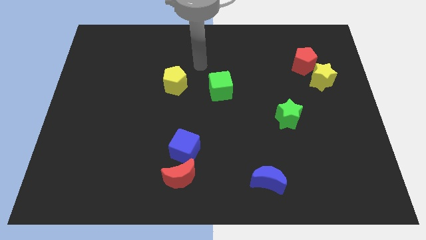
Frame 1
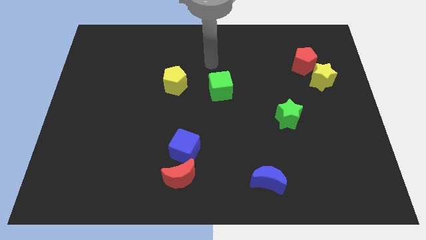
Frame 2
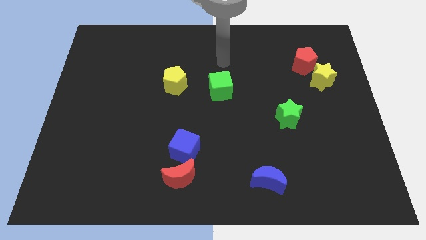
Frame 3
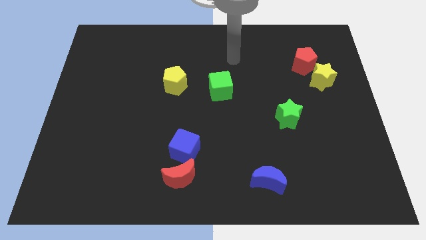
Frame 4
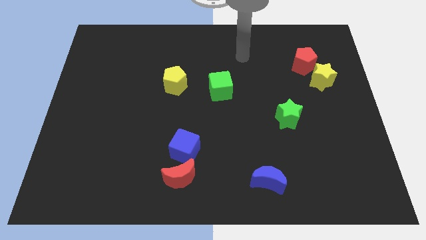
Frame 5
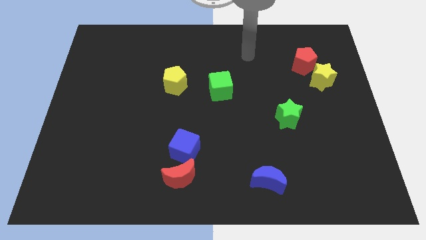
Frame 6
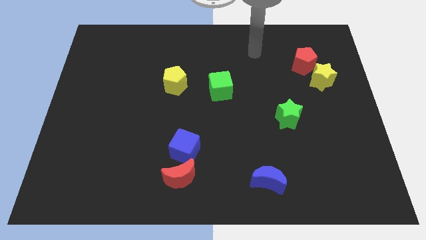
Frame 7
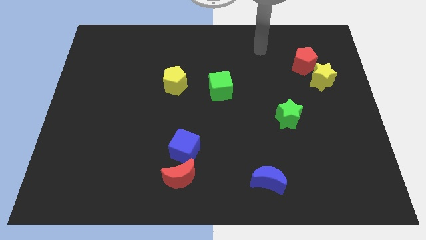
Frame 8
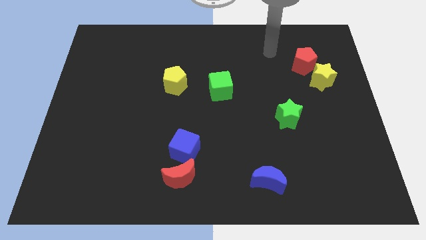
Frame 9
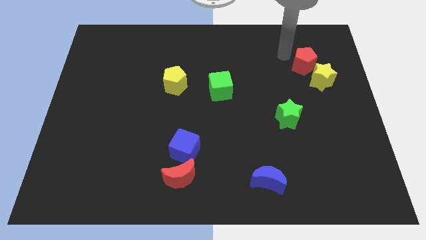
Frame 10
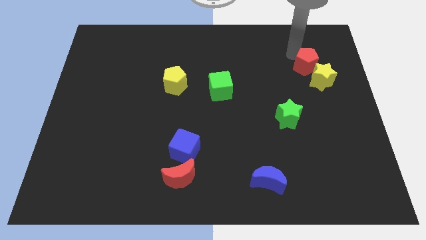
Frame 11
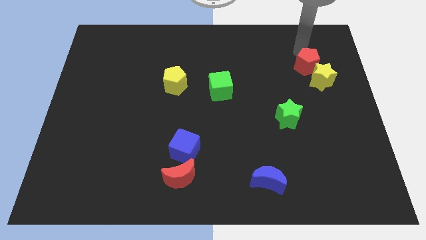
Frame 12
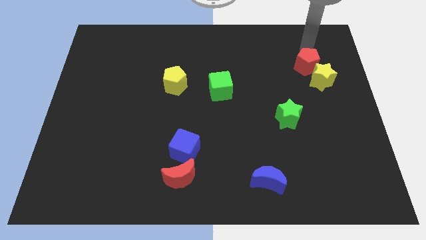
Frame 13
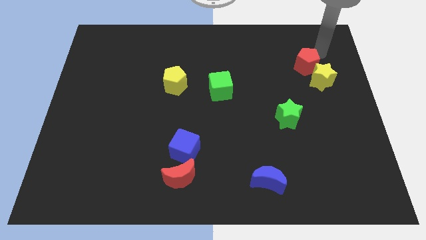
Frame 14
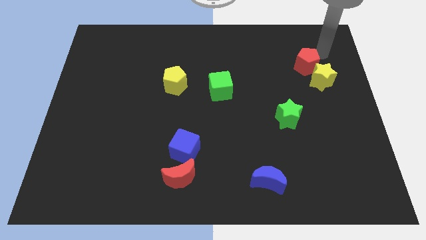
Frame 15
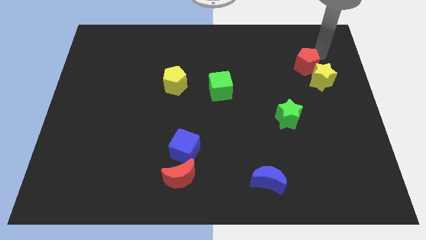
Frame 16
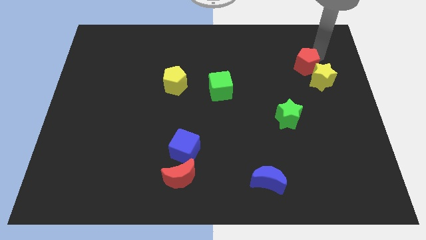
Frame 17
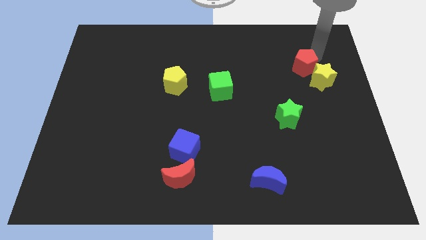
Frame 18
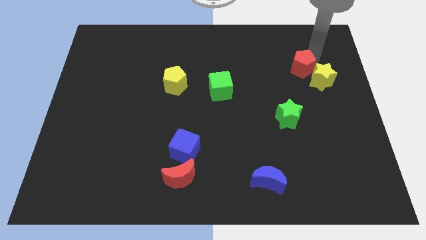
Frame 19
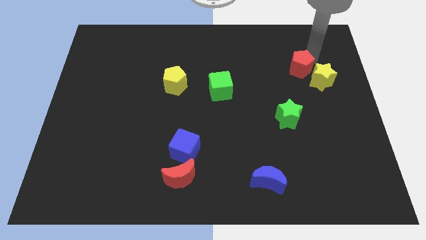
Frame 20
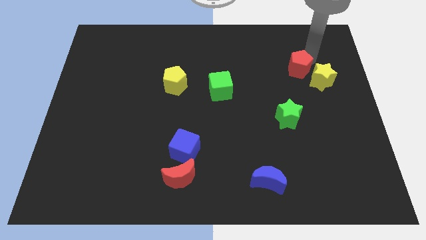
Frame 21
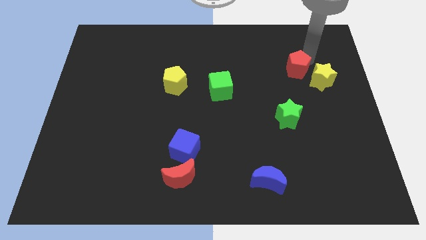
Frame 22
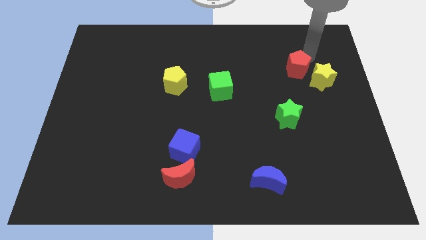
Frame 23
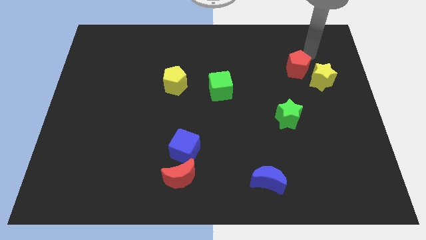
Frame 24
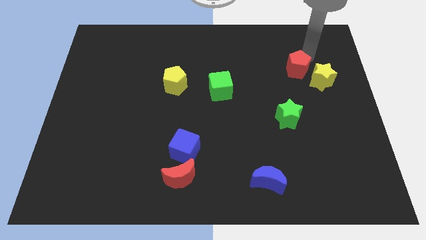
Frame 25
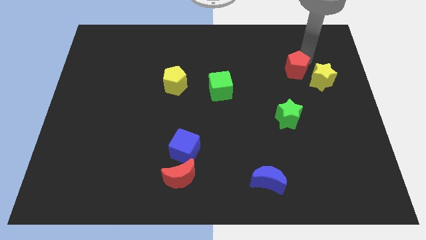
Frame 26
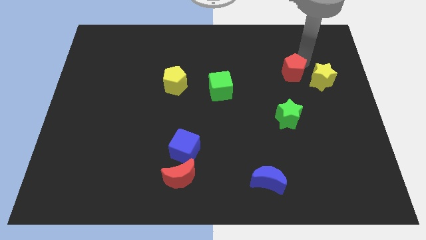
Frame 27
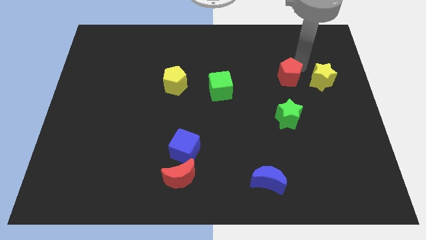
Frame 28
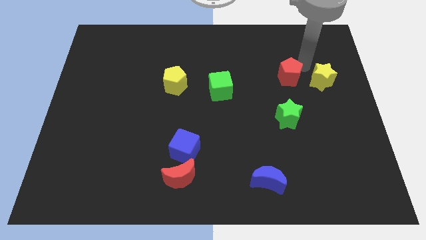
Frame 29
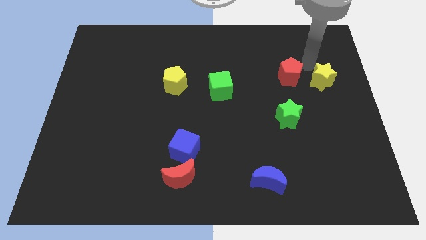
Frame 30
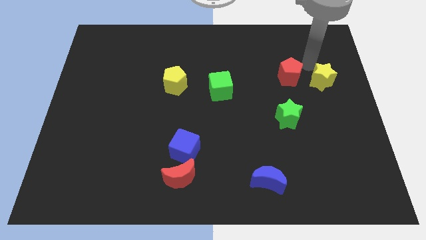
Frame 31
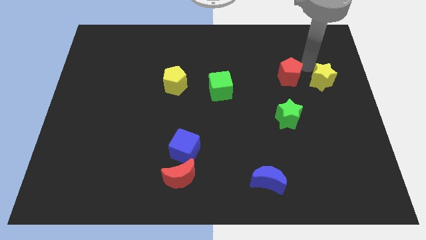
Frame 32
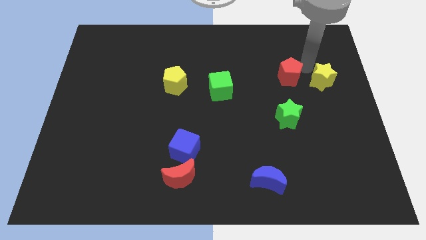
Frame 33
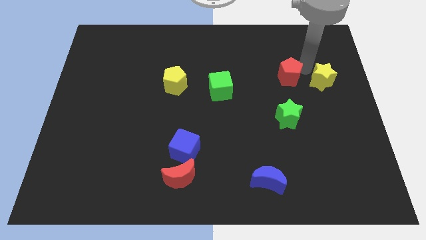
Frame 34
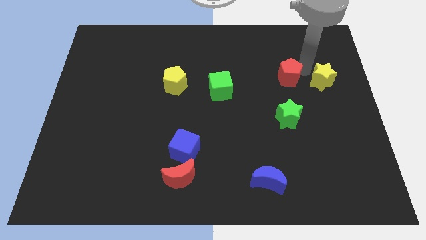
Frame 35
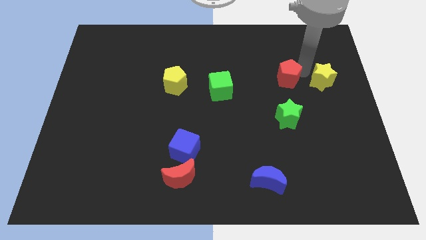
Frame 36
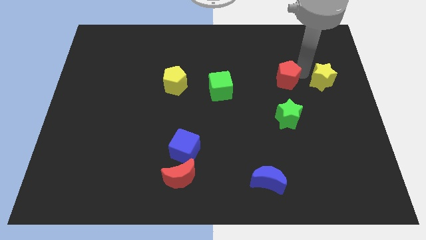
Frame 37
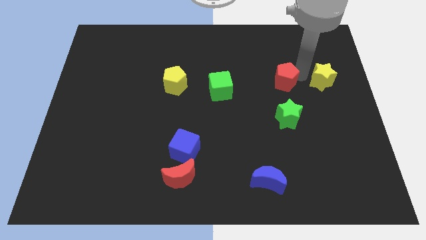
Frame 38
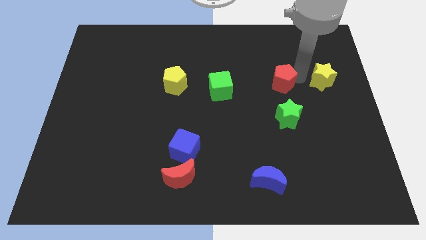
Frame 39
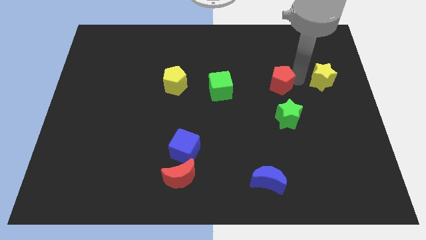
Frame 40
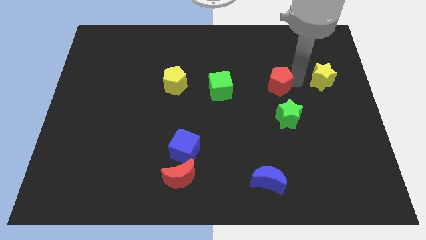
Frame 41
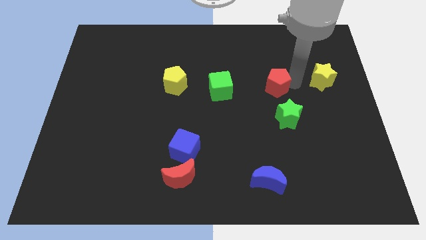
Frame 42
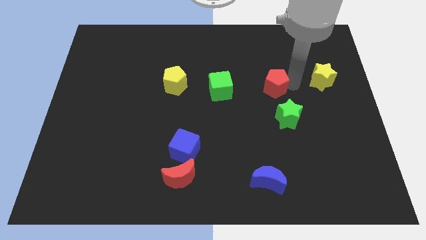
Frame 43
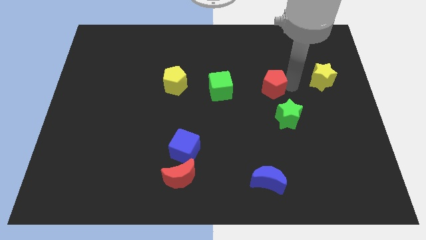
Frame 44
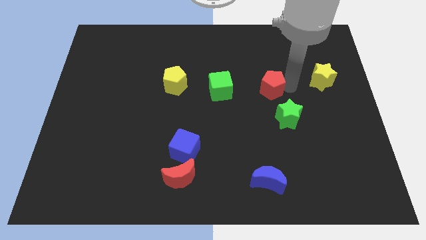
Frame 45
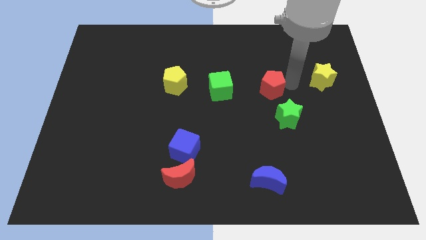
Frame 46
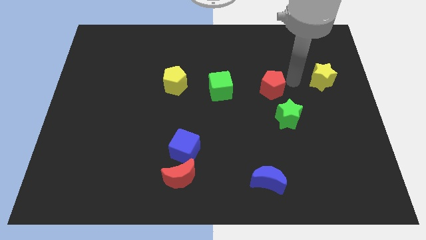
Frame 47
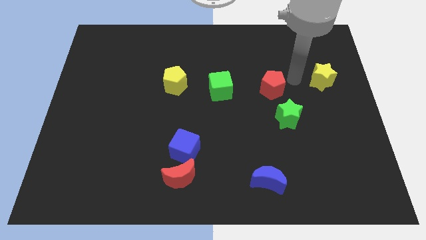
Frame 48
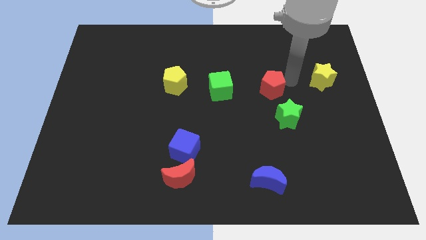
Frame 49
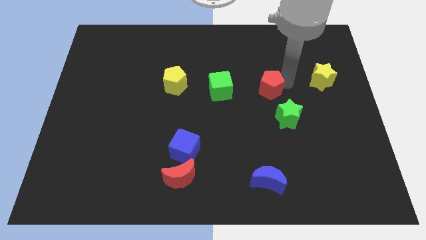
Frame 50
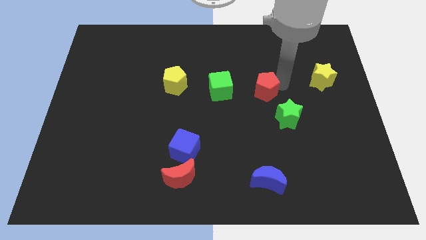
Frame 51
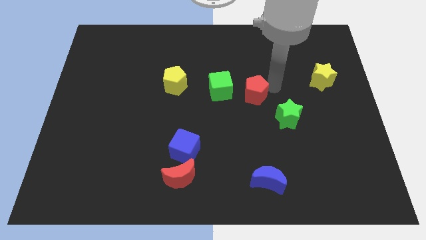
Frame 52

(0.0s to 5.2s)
push the red pentagon diagonally down and to the right of the green cube
